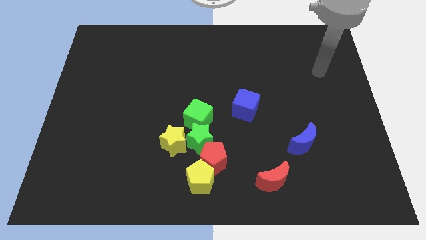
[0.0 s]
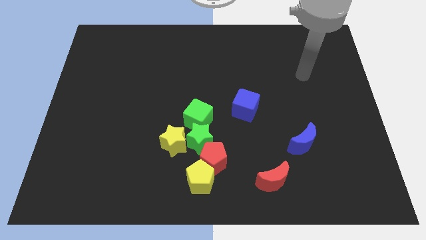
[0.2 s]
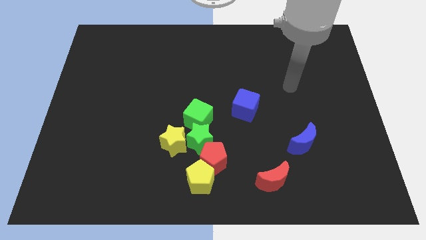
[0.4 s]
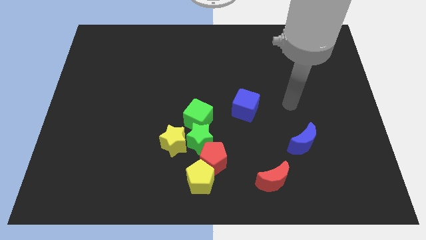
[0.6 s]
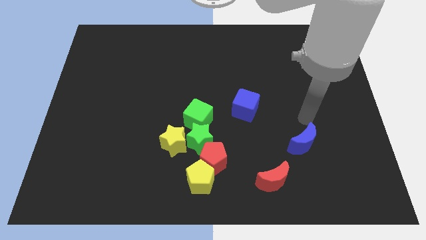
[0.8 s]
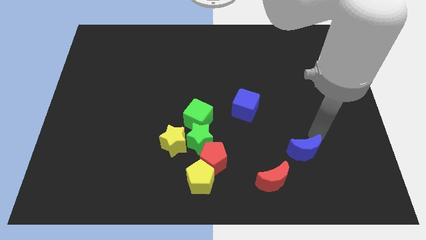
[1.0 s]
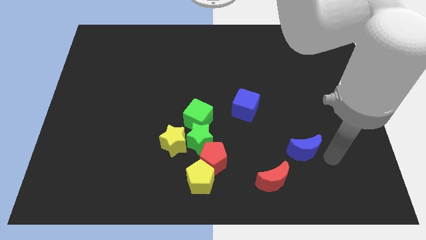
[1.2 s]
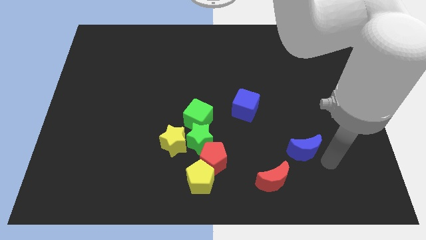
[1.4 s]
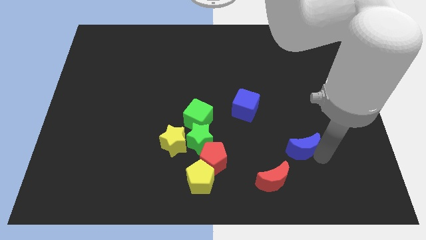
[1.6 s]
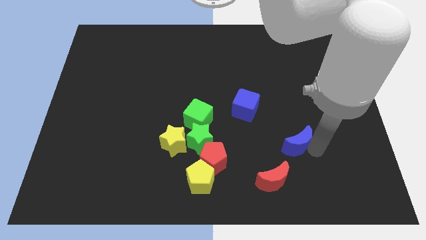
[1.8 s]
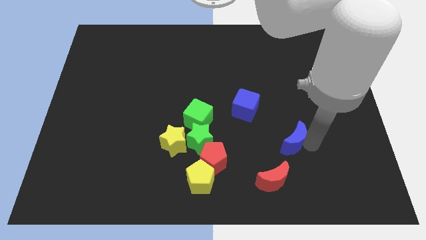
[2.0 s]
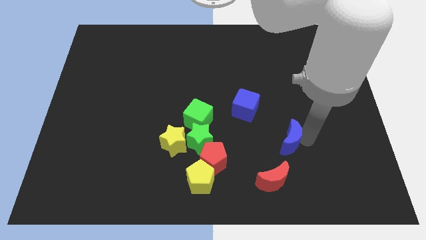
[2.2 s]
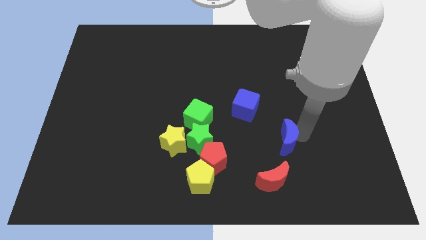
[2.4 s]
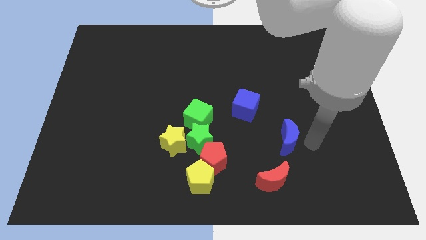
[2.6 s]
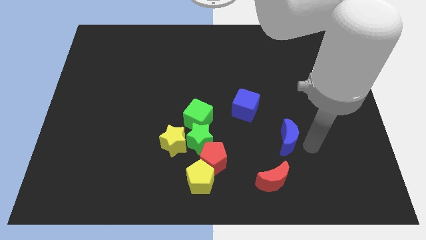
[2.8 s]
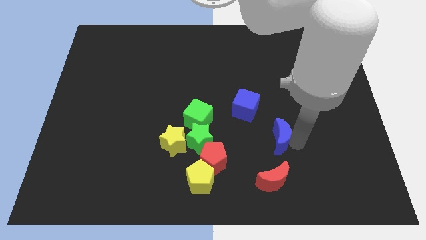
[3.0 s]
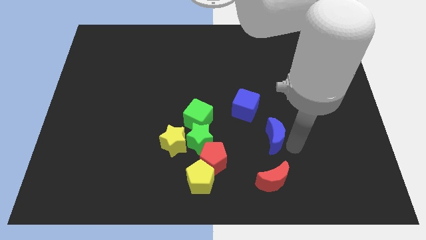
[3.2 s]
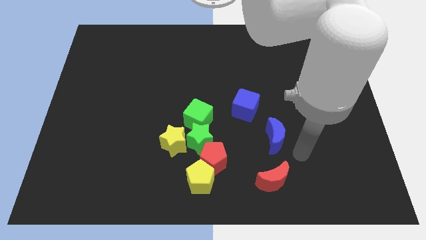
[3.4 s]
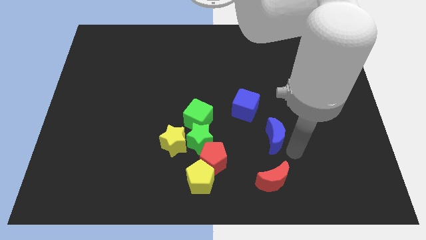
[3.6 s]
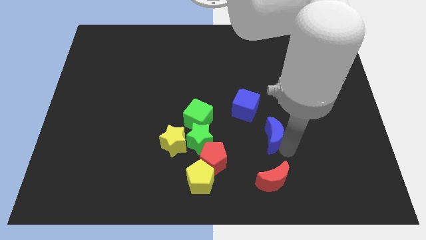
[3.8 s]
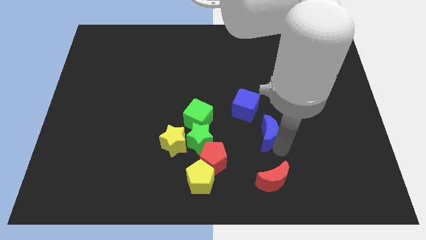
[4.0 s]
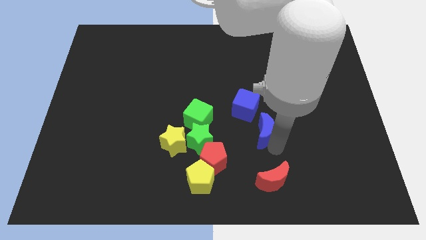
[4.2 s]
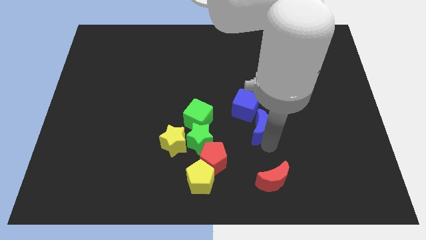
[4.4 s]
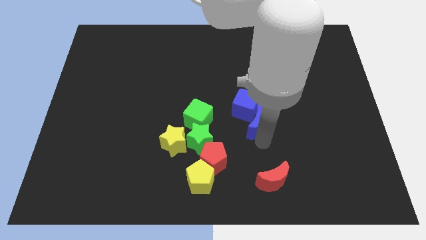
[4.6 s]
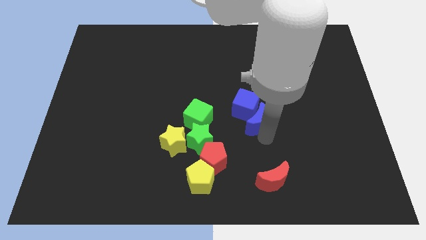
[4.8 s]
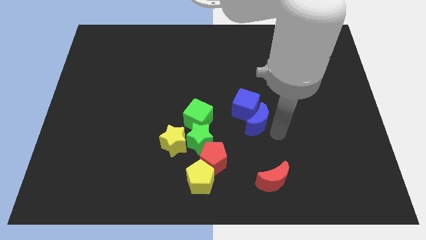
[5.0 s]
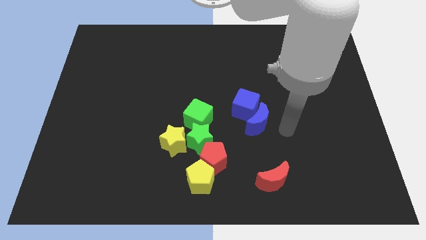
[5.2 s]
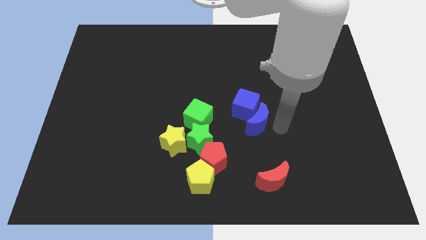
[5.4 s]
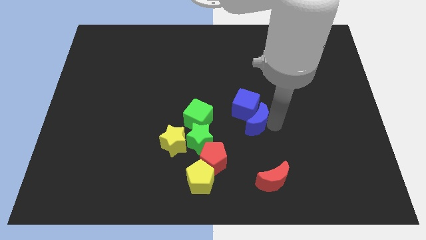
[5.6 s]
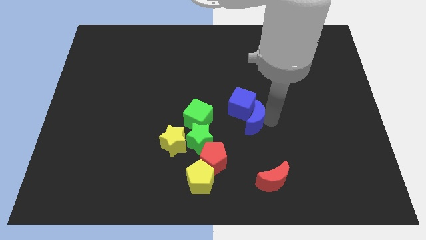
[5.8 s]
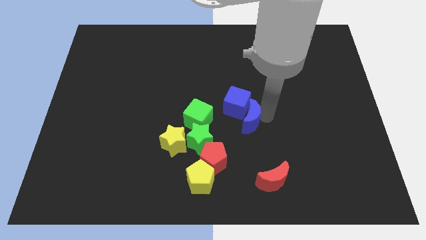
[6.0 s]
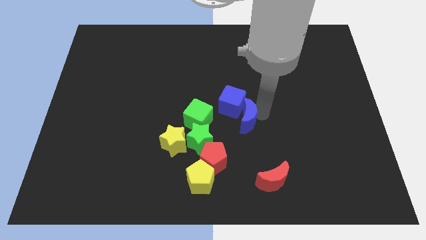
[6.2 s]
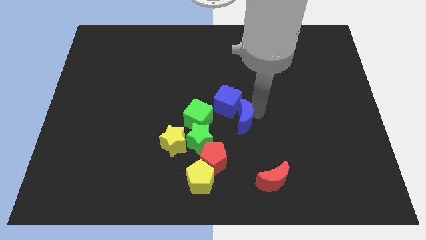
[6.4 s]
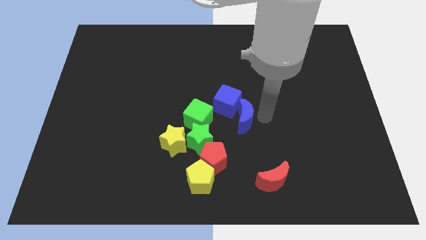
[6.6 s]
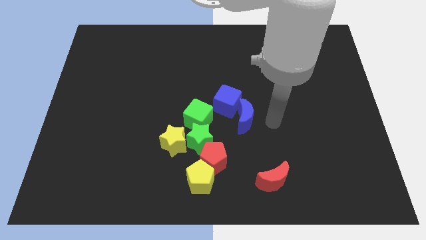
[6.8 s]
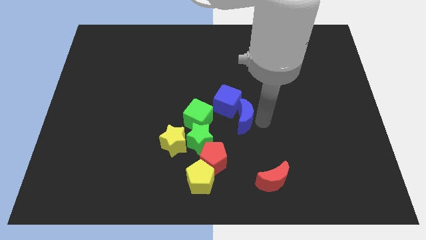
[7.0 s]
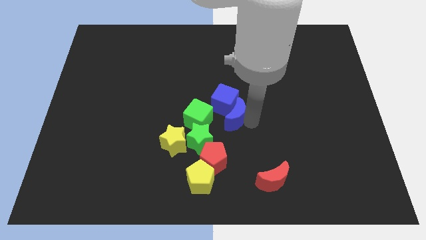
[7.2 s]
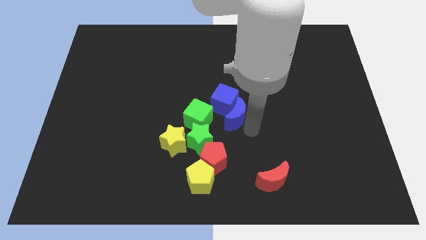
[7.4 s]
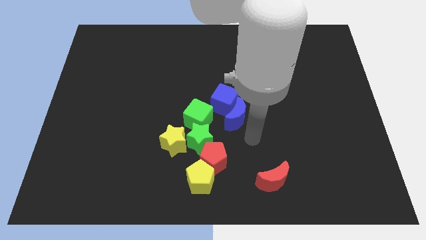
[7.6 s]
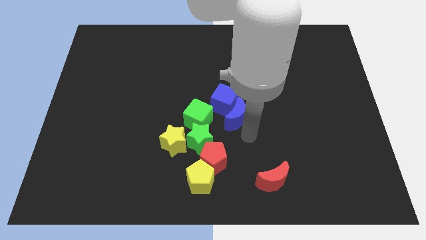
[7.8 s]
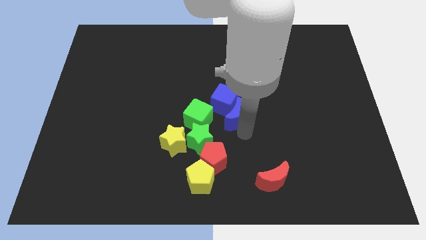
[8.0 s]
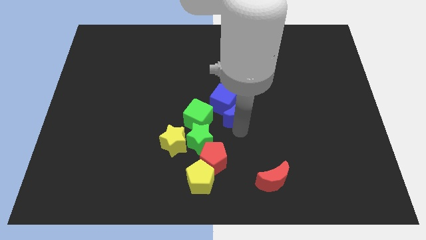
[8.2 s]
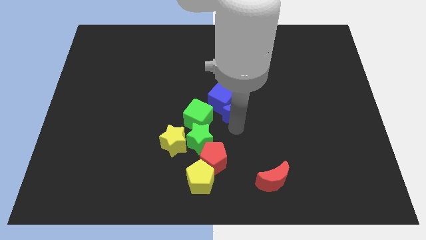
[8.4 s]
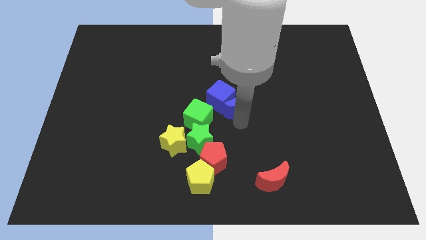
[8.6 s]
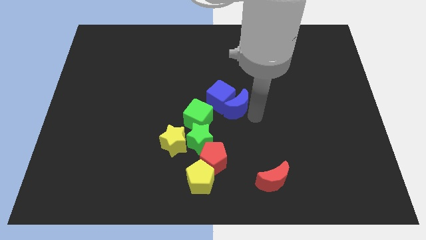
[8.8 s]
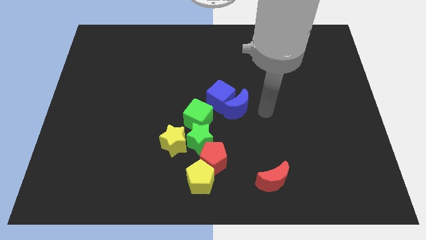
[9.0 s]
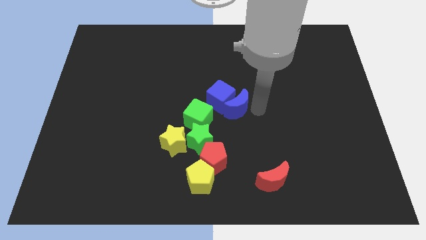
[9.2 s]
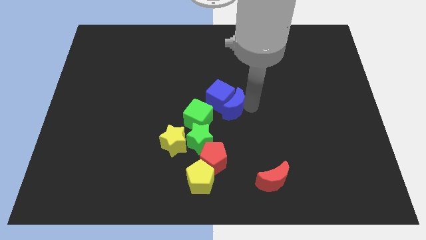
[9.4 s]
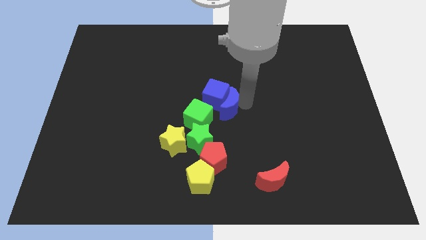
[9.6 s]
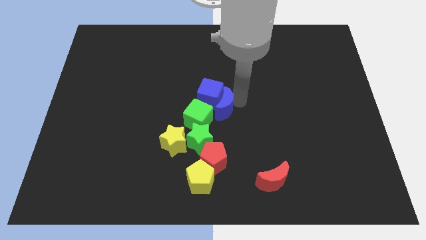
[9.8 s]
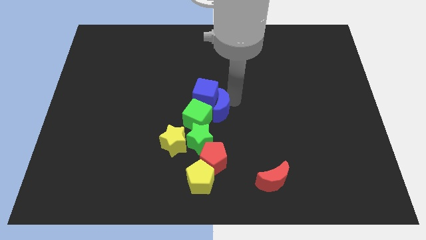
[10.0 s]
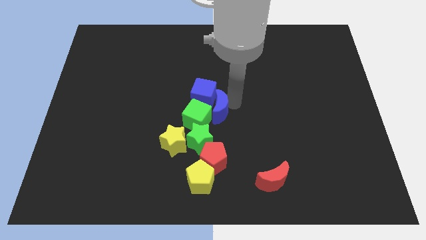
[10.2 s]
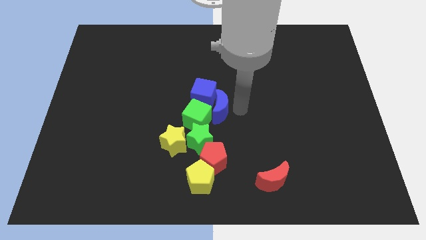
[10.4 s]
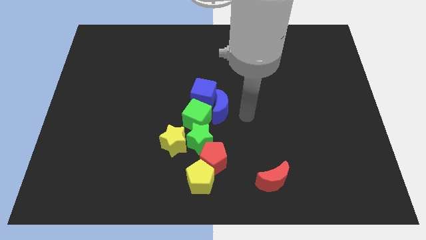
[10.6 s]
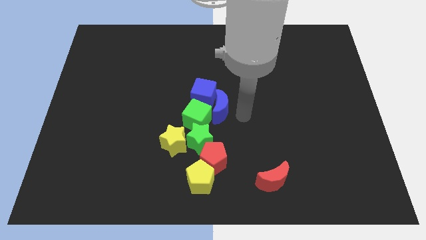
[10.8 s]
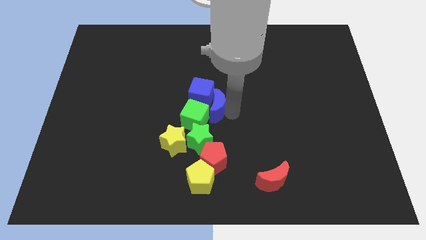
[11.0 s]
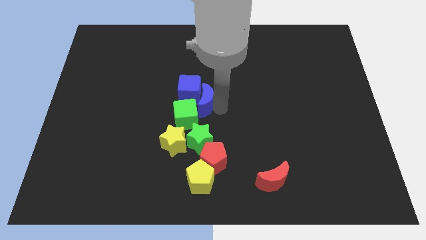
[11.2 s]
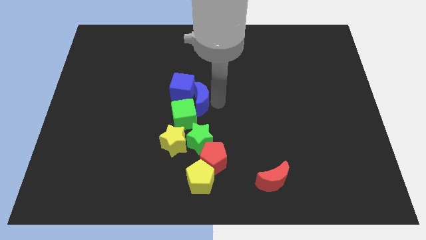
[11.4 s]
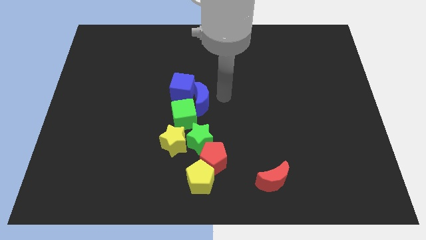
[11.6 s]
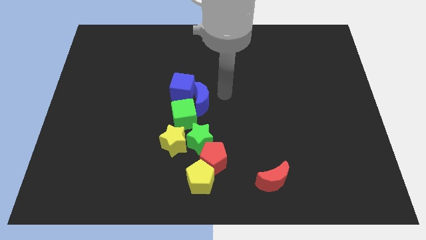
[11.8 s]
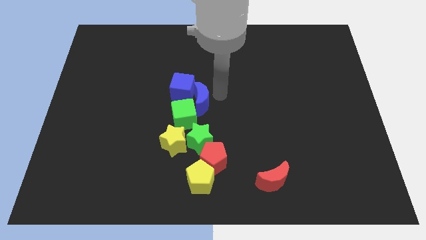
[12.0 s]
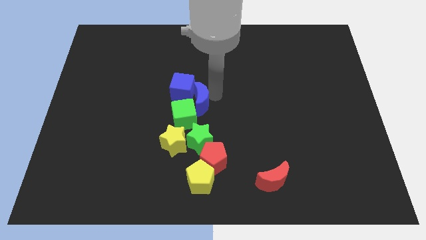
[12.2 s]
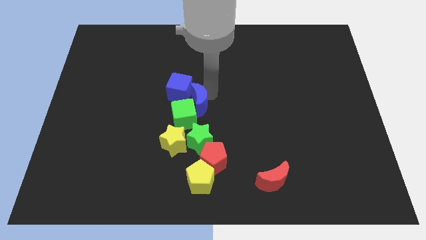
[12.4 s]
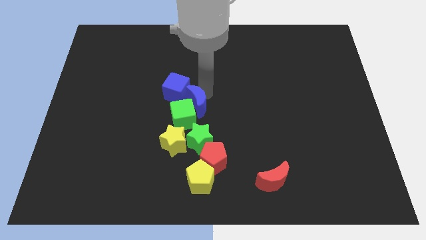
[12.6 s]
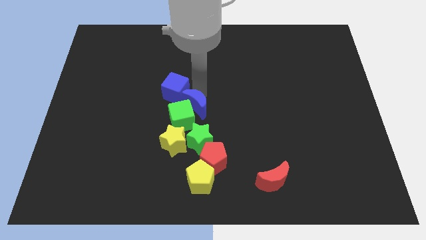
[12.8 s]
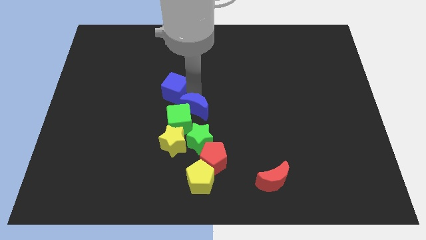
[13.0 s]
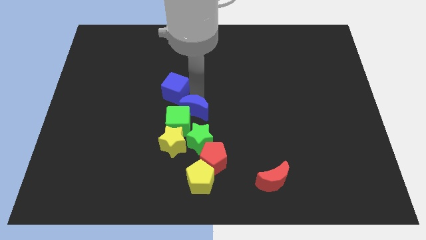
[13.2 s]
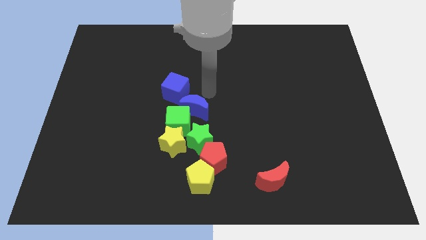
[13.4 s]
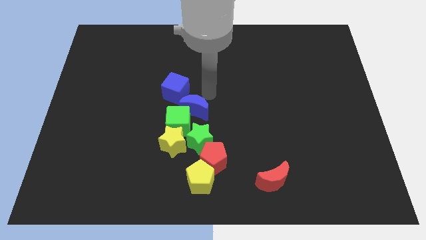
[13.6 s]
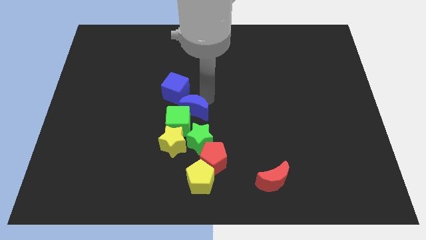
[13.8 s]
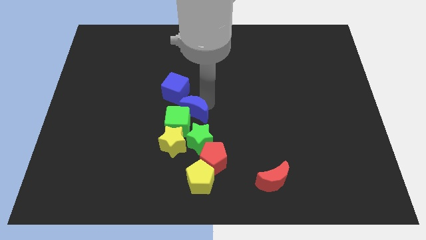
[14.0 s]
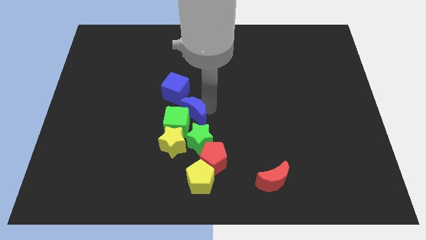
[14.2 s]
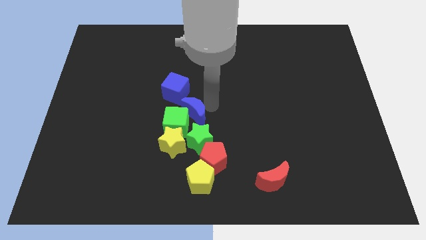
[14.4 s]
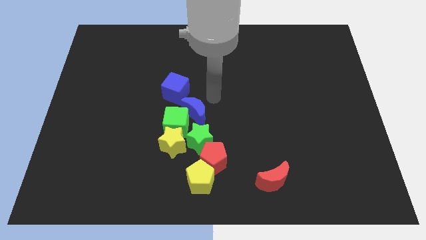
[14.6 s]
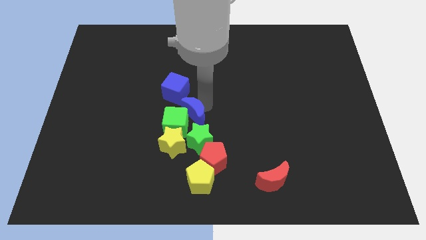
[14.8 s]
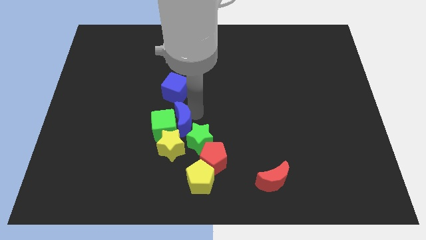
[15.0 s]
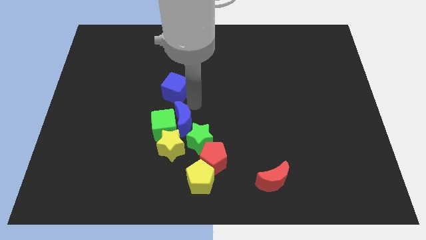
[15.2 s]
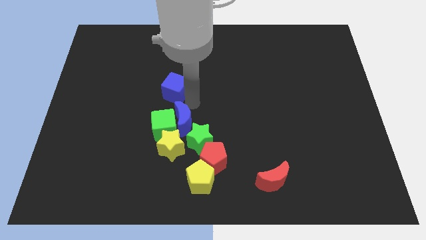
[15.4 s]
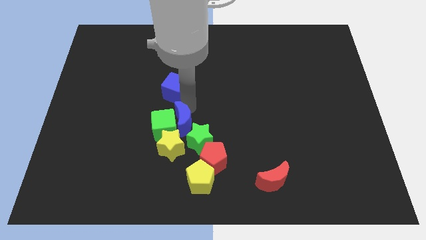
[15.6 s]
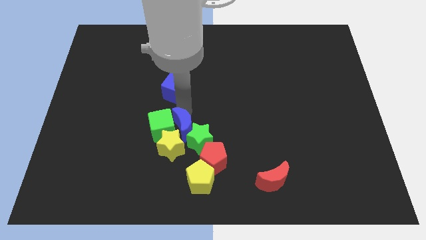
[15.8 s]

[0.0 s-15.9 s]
put the blue moon close to the yellow star
